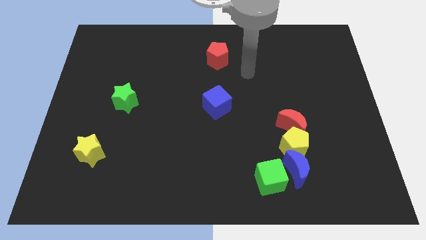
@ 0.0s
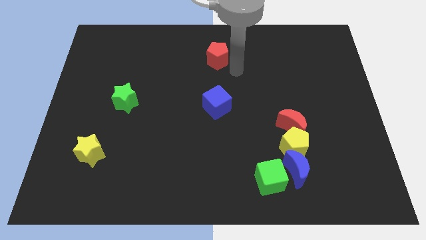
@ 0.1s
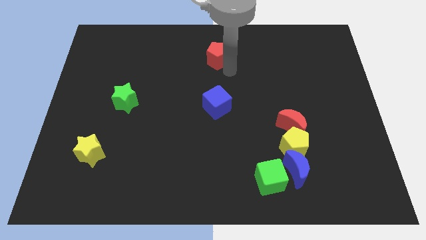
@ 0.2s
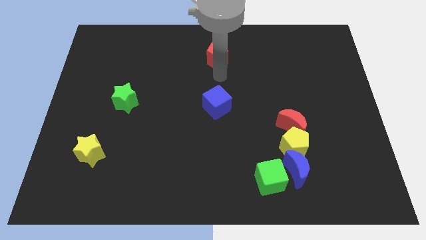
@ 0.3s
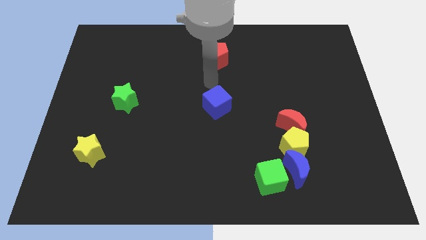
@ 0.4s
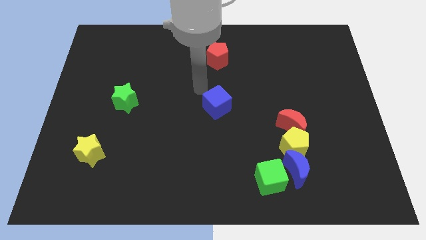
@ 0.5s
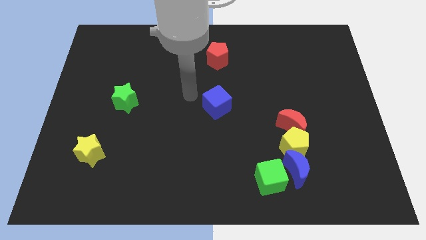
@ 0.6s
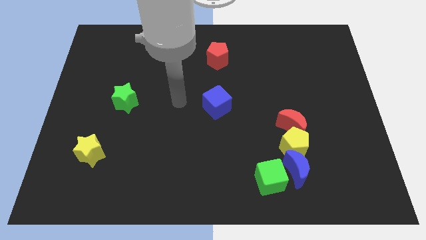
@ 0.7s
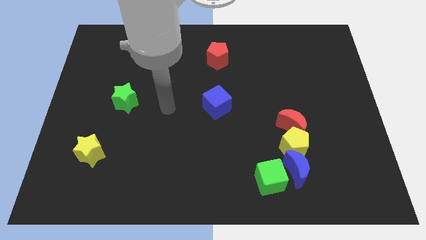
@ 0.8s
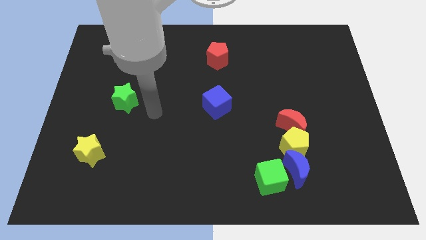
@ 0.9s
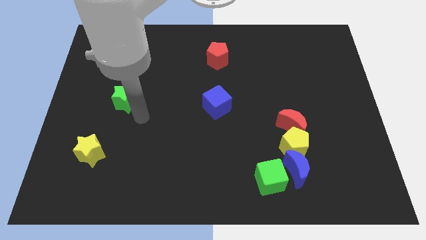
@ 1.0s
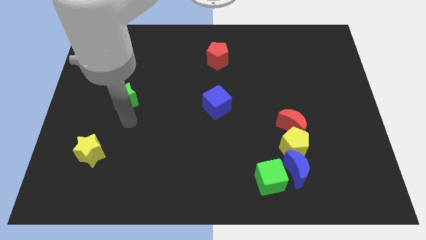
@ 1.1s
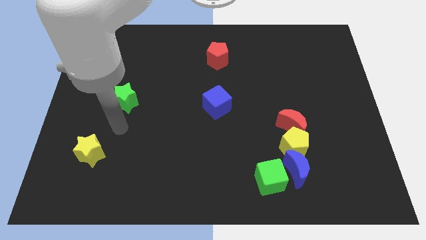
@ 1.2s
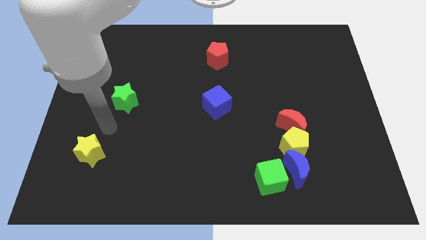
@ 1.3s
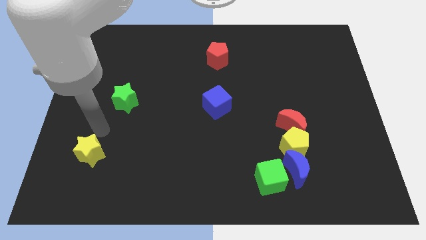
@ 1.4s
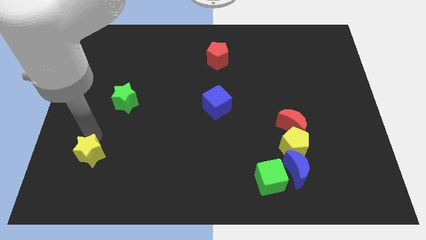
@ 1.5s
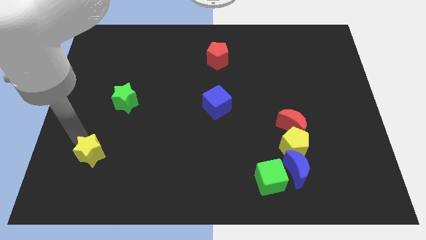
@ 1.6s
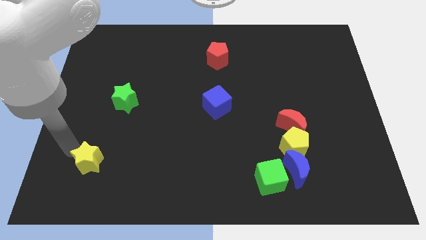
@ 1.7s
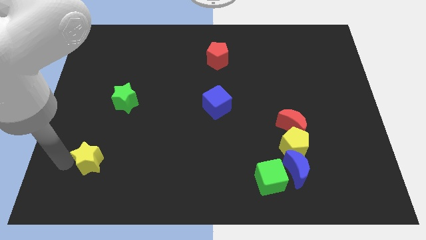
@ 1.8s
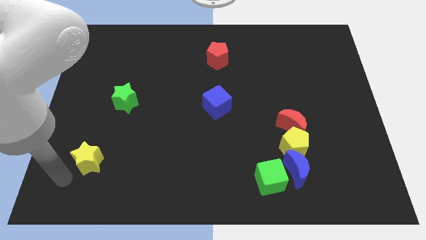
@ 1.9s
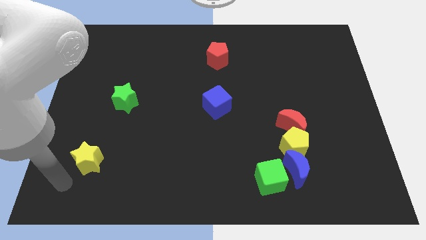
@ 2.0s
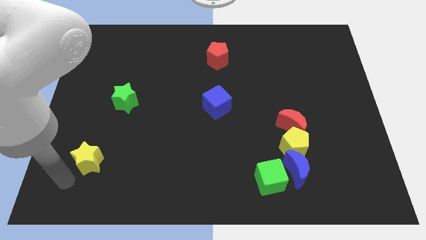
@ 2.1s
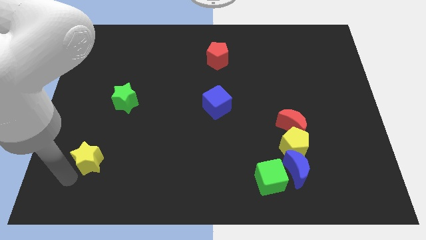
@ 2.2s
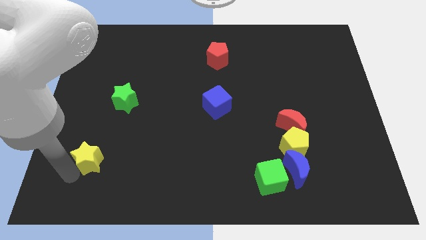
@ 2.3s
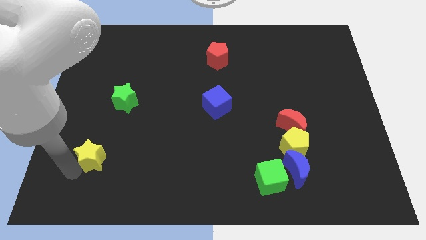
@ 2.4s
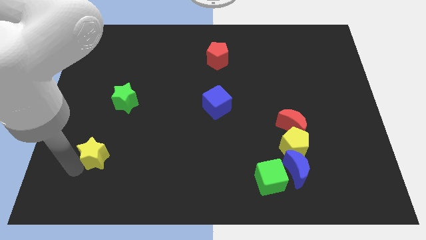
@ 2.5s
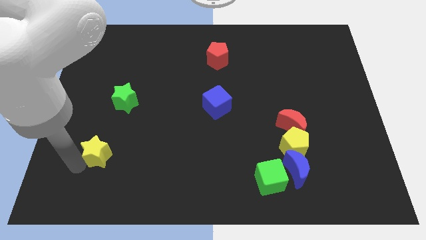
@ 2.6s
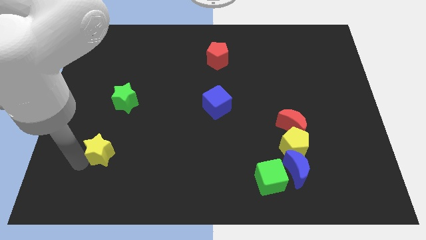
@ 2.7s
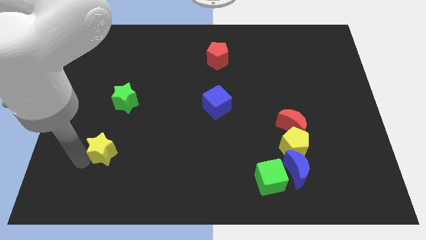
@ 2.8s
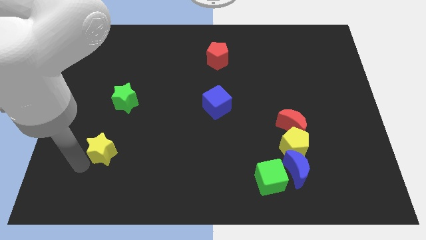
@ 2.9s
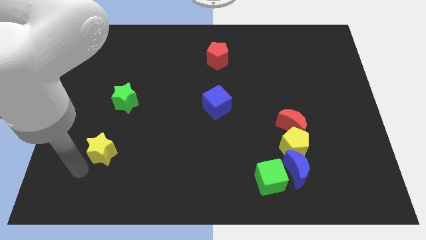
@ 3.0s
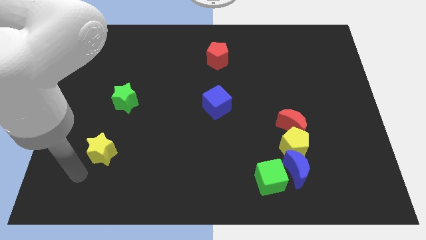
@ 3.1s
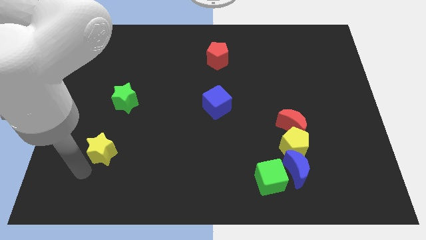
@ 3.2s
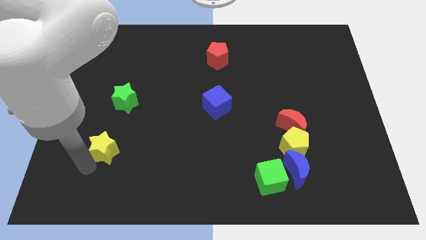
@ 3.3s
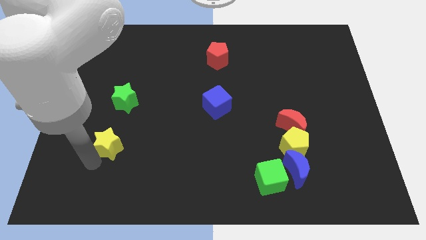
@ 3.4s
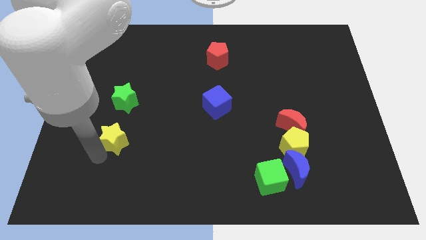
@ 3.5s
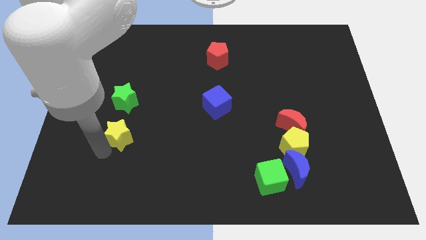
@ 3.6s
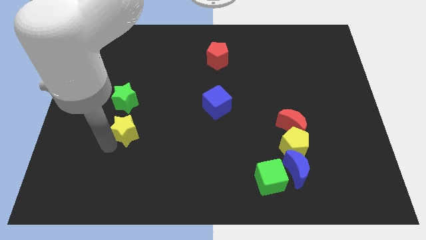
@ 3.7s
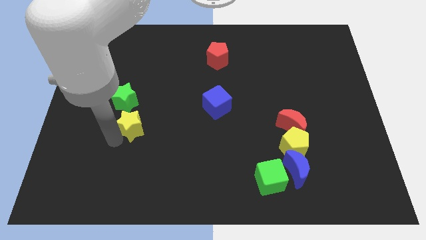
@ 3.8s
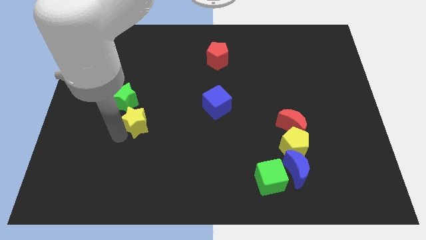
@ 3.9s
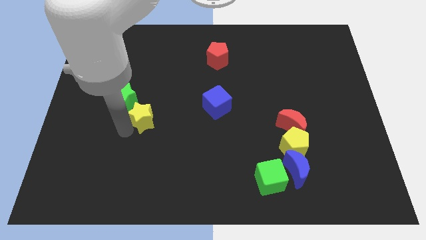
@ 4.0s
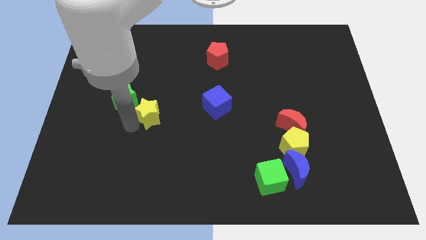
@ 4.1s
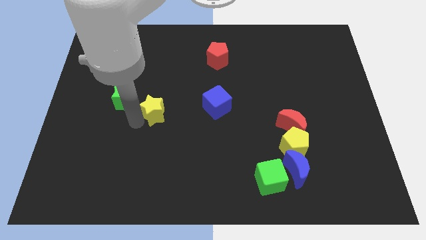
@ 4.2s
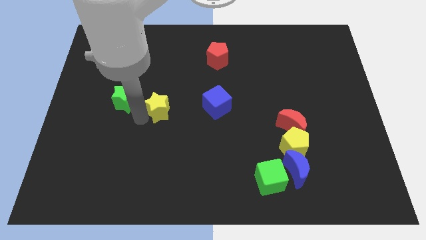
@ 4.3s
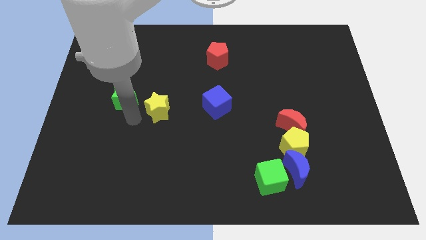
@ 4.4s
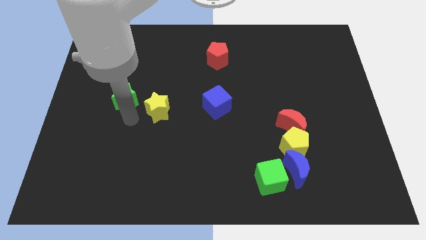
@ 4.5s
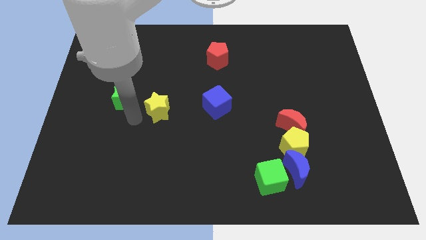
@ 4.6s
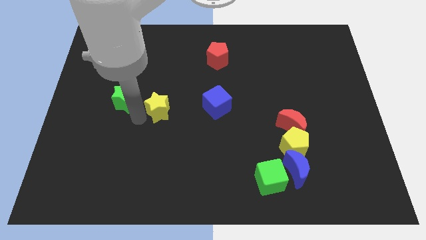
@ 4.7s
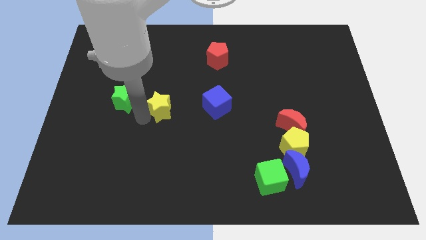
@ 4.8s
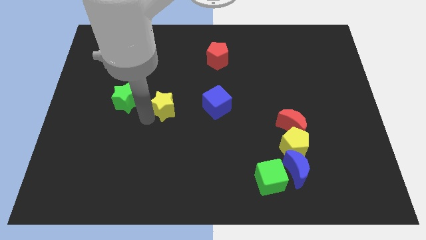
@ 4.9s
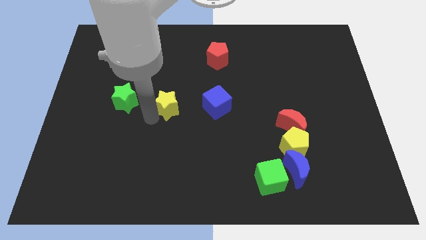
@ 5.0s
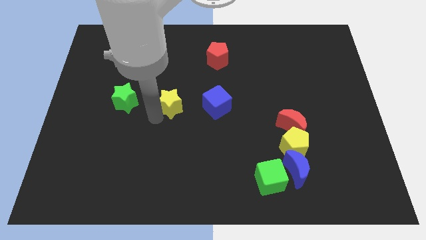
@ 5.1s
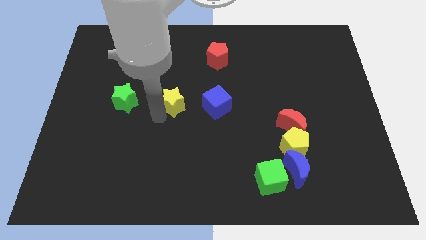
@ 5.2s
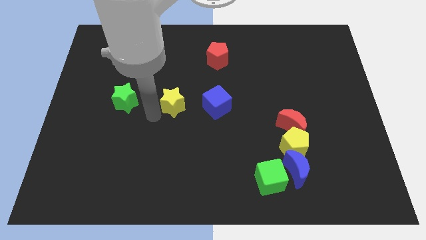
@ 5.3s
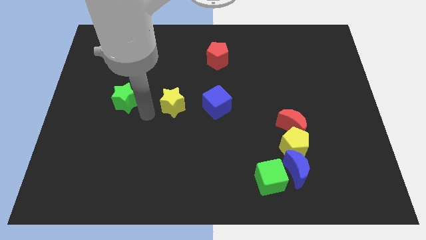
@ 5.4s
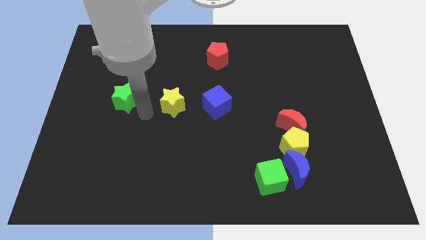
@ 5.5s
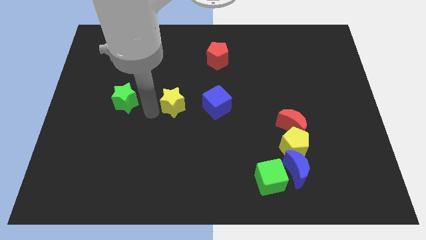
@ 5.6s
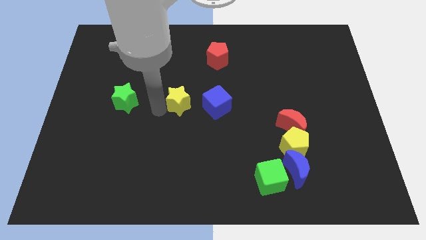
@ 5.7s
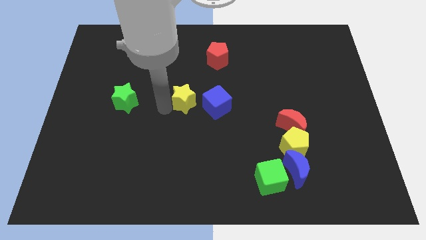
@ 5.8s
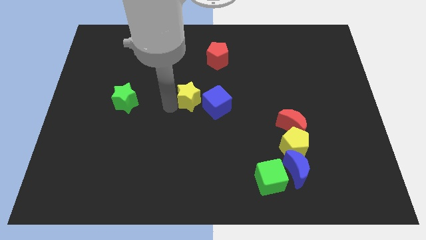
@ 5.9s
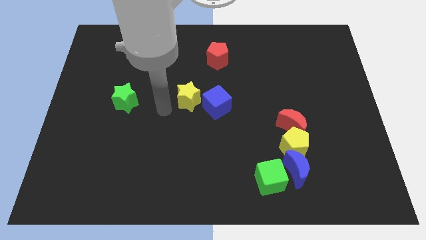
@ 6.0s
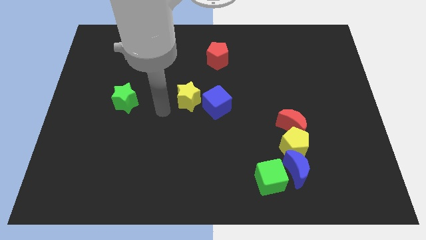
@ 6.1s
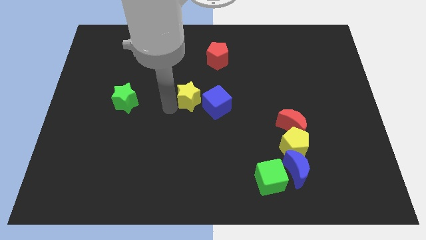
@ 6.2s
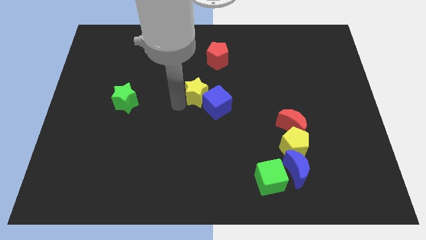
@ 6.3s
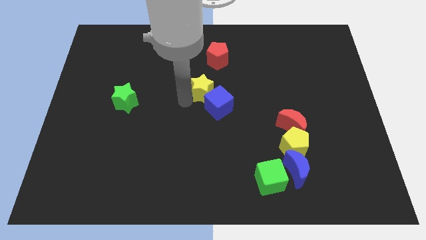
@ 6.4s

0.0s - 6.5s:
move the yellow star below the red pentagon
